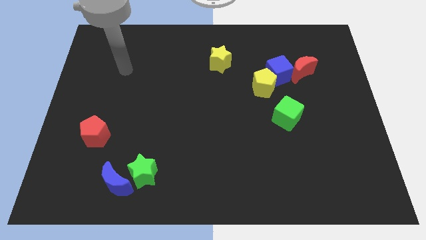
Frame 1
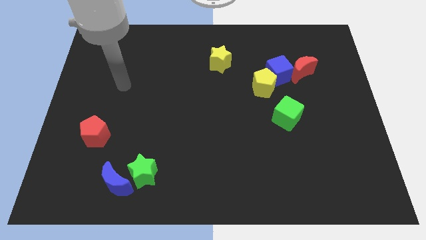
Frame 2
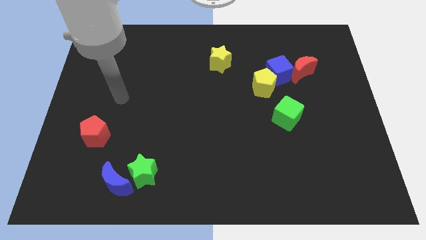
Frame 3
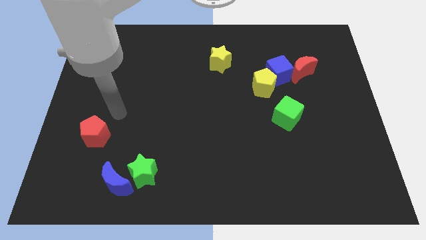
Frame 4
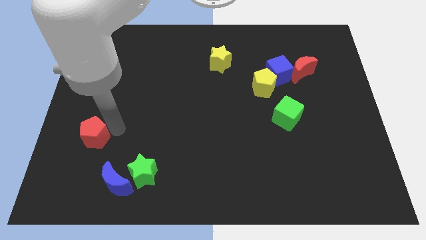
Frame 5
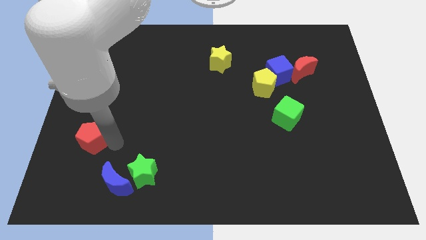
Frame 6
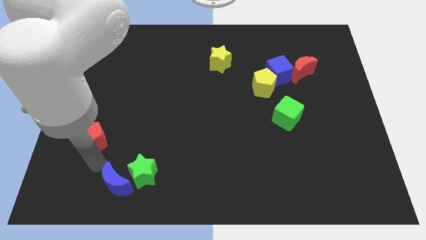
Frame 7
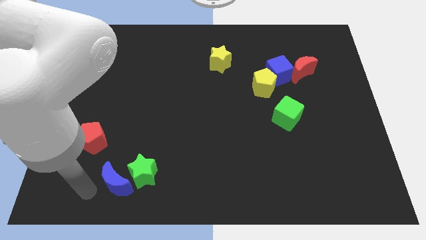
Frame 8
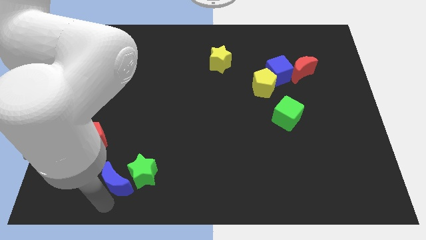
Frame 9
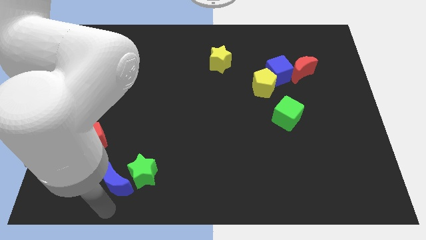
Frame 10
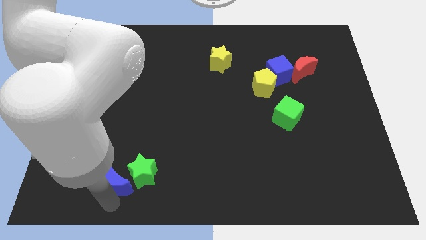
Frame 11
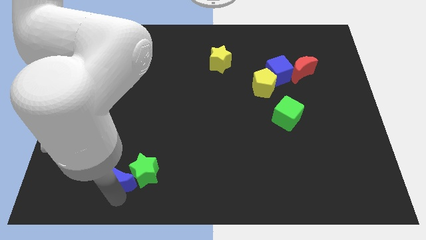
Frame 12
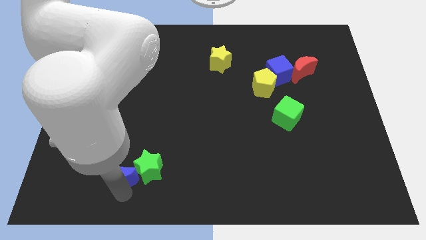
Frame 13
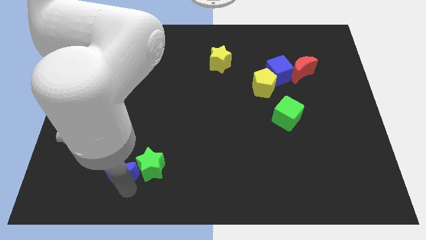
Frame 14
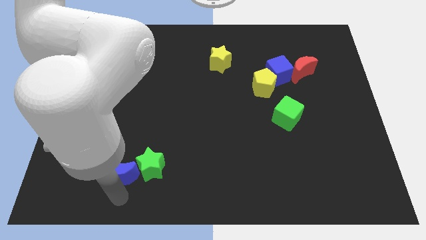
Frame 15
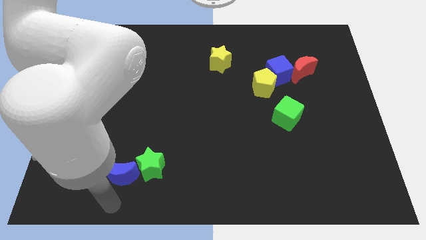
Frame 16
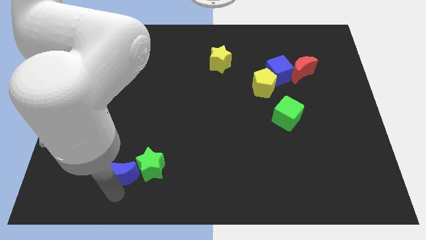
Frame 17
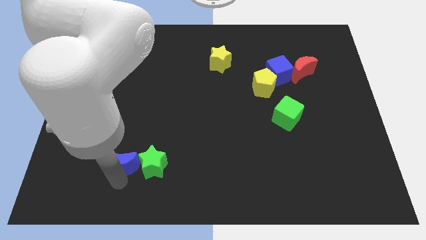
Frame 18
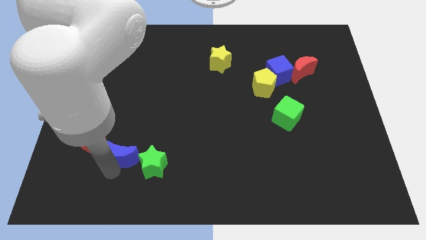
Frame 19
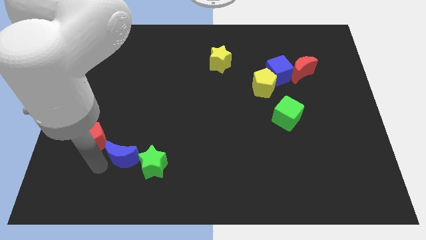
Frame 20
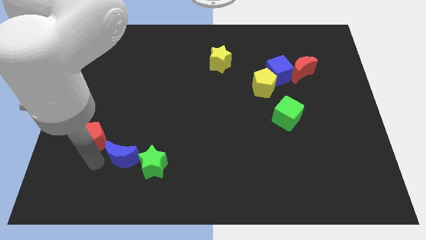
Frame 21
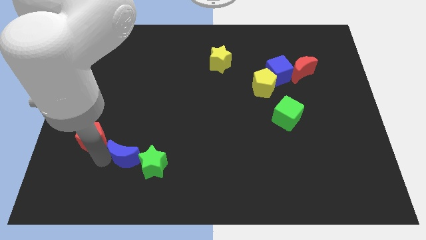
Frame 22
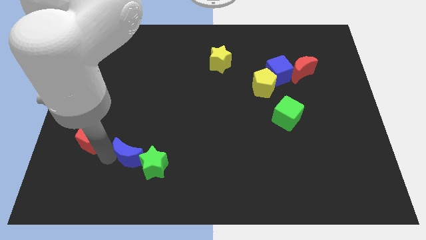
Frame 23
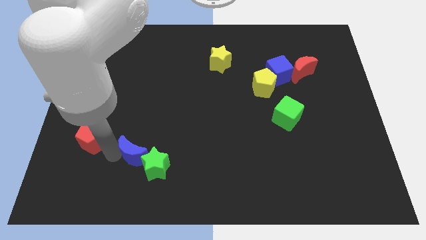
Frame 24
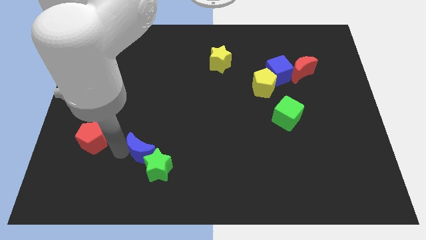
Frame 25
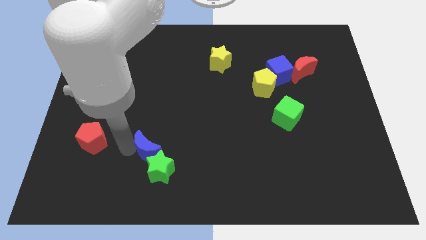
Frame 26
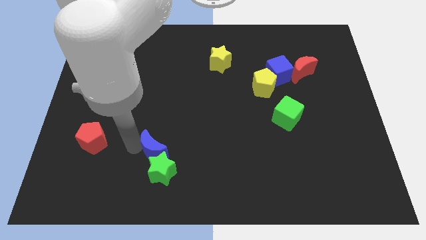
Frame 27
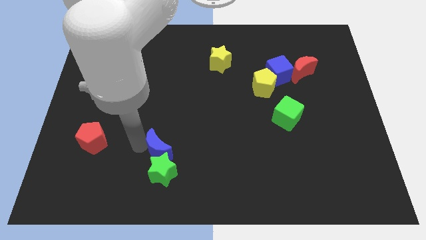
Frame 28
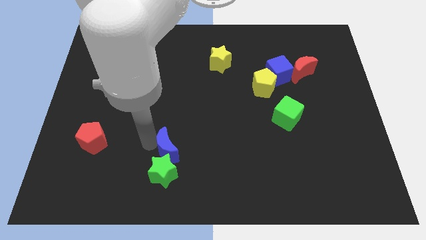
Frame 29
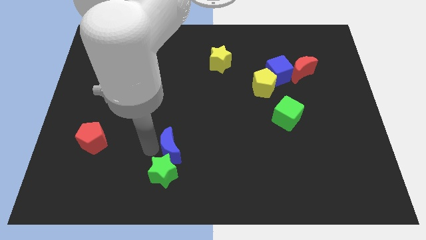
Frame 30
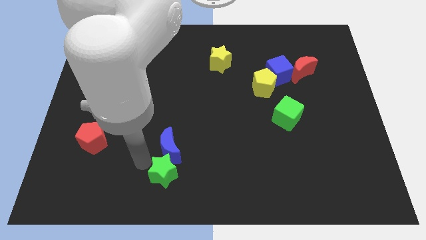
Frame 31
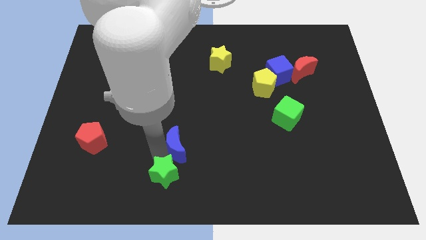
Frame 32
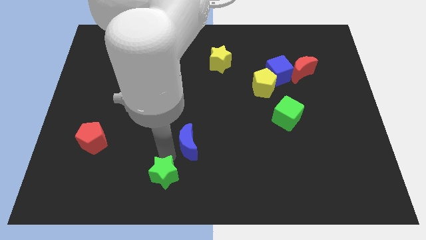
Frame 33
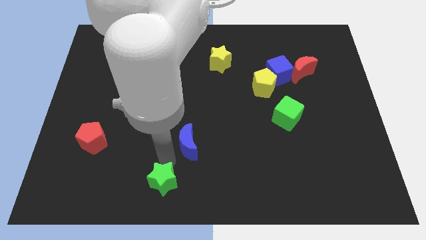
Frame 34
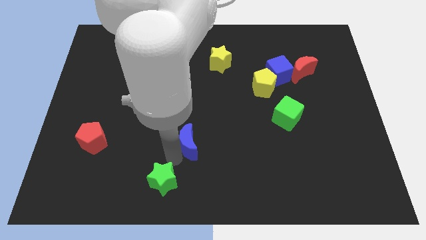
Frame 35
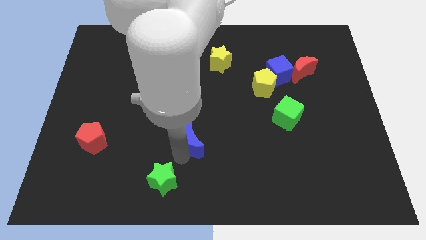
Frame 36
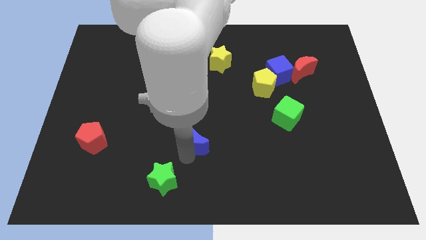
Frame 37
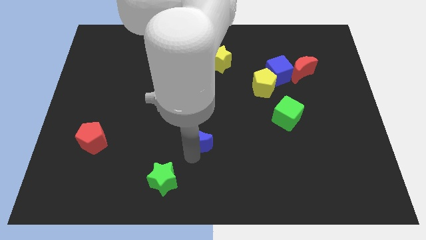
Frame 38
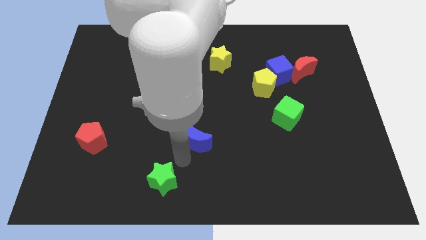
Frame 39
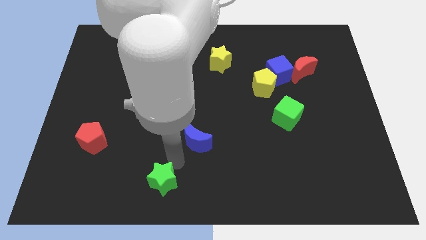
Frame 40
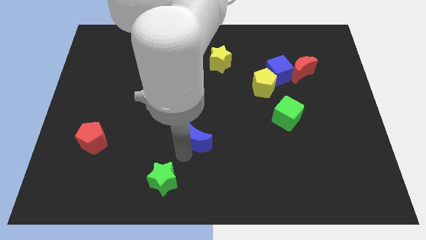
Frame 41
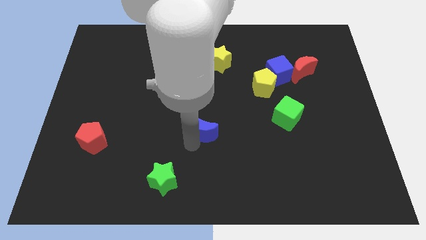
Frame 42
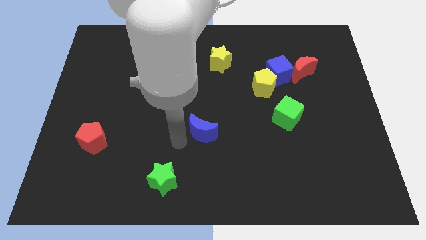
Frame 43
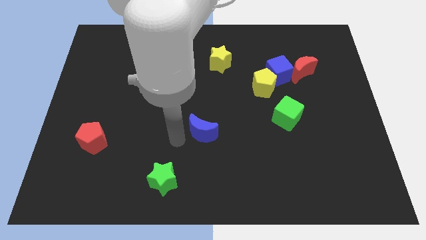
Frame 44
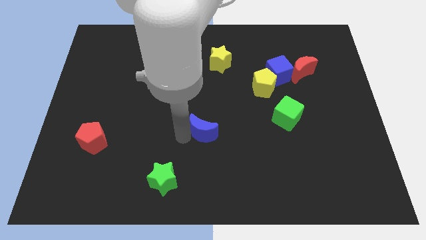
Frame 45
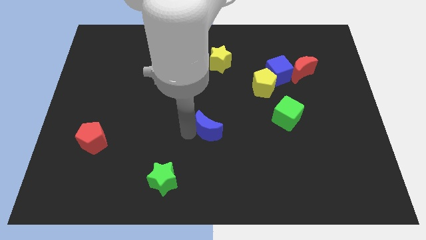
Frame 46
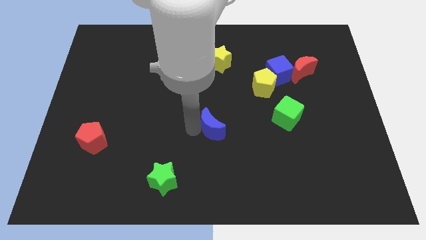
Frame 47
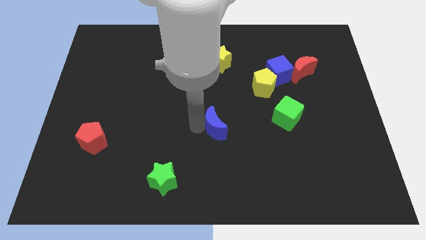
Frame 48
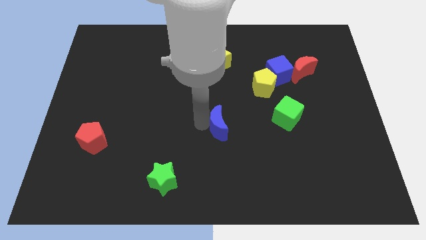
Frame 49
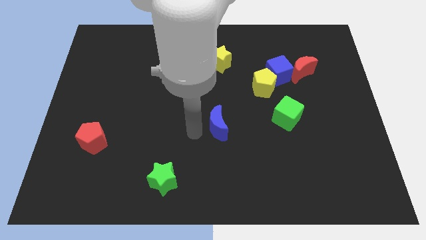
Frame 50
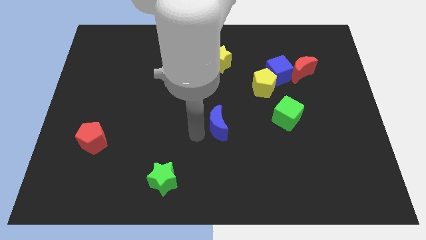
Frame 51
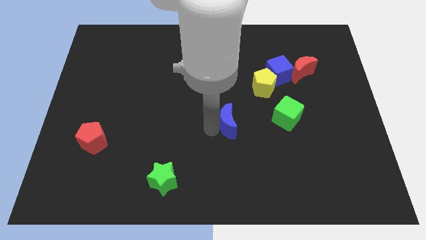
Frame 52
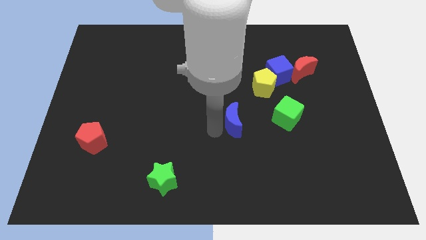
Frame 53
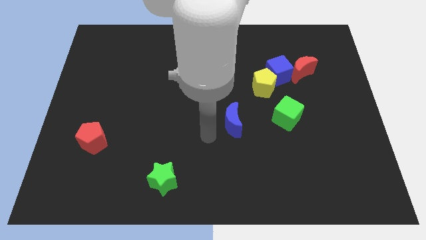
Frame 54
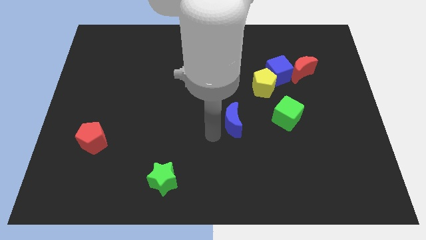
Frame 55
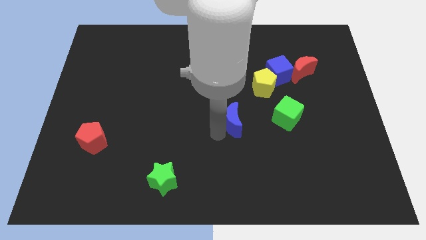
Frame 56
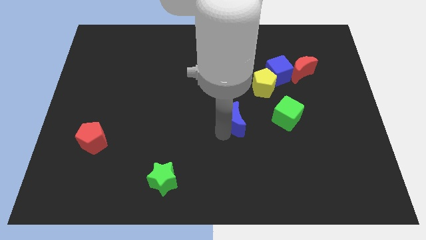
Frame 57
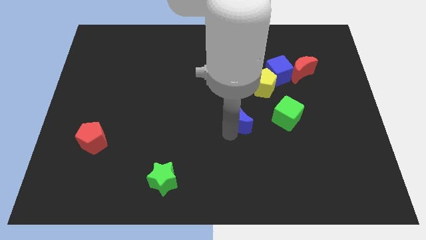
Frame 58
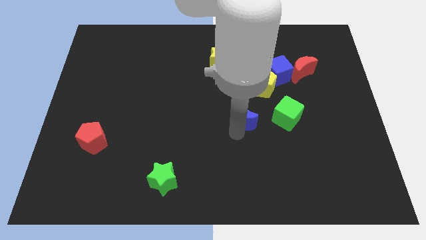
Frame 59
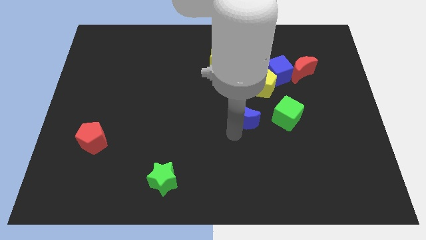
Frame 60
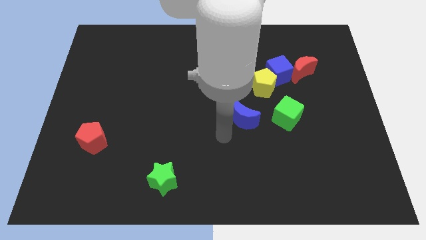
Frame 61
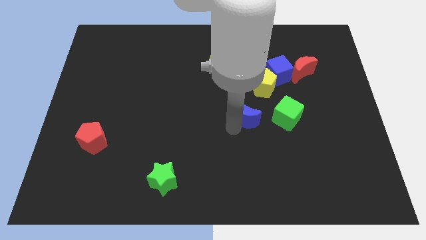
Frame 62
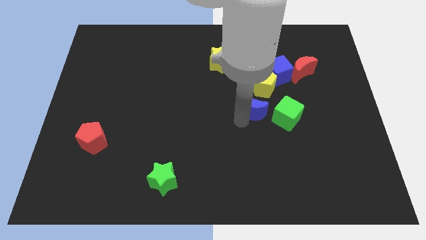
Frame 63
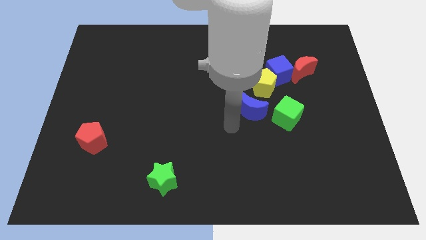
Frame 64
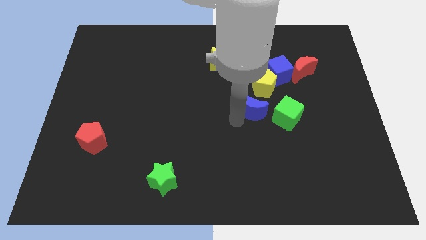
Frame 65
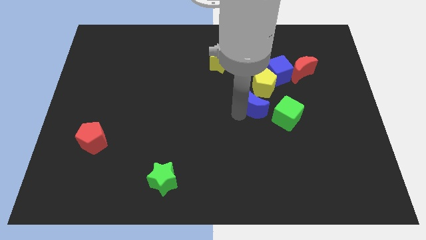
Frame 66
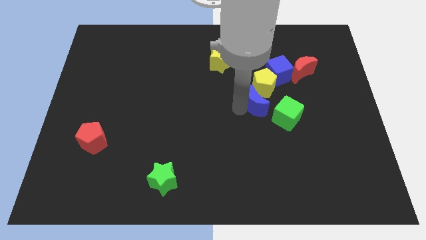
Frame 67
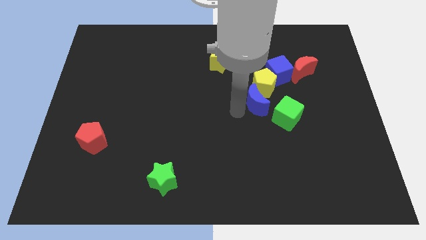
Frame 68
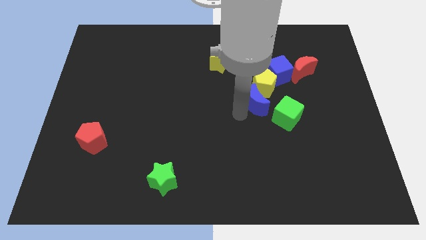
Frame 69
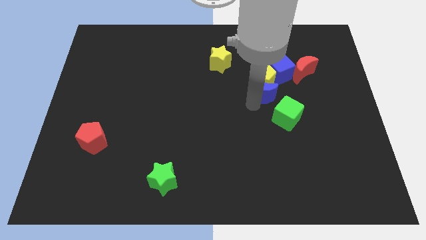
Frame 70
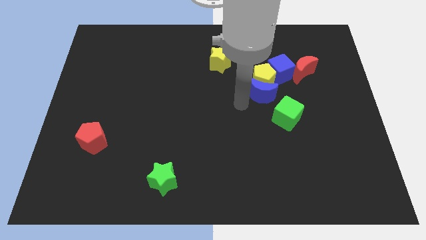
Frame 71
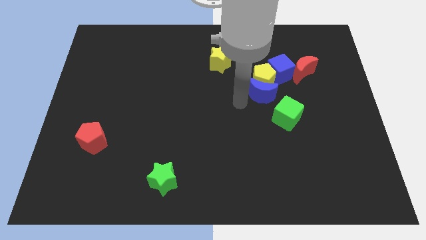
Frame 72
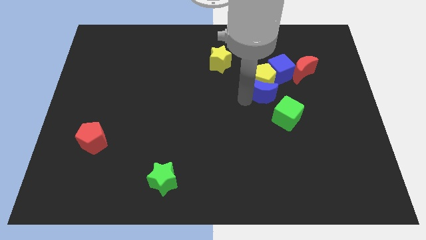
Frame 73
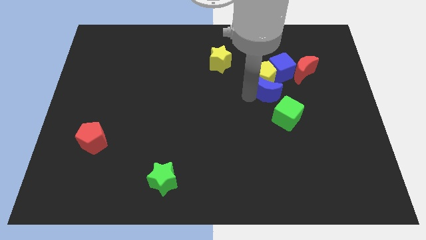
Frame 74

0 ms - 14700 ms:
put the blue moon diagonally down and to the left of the red moon
